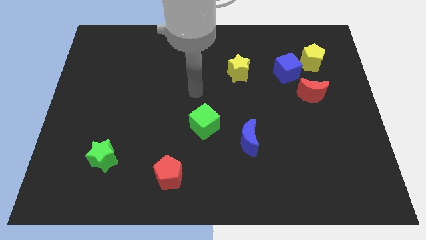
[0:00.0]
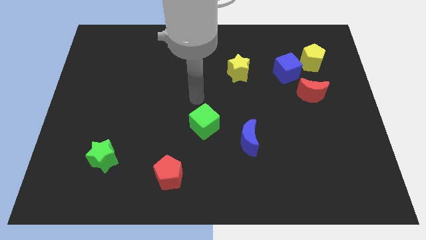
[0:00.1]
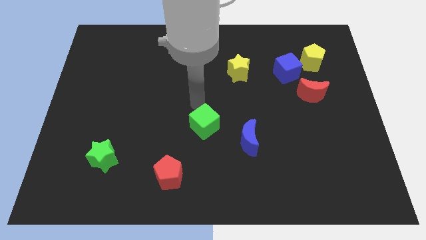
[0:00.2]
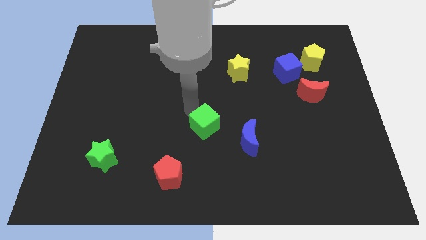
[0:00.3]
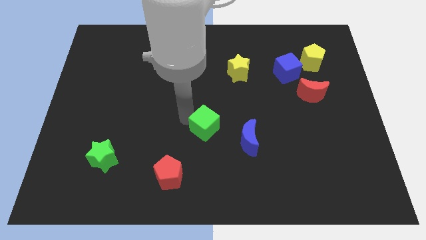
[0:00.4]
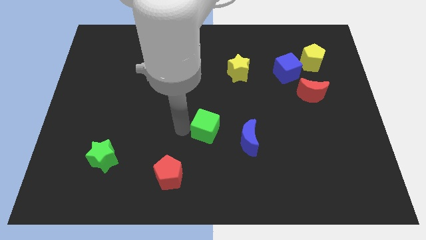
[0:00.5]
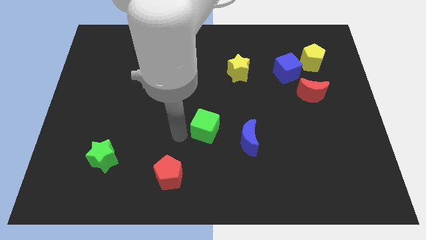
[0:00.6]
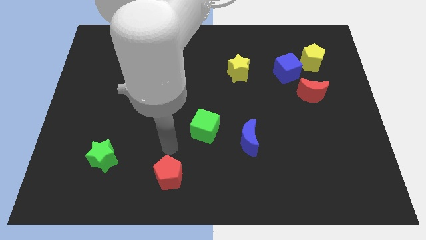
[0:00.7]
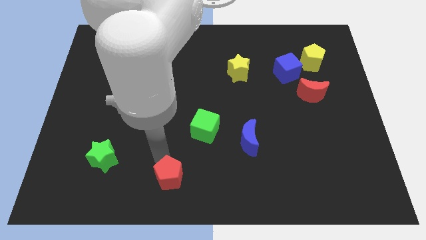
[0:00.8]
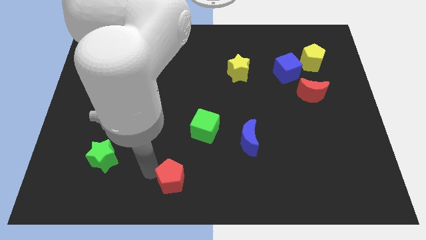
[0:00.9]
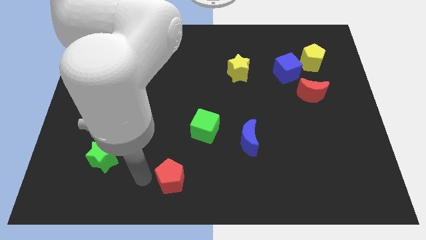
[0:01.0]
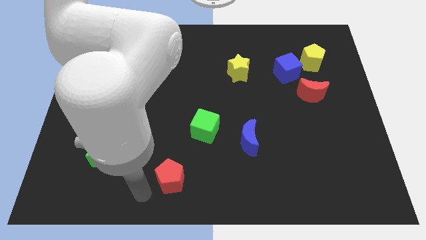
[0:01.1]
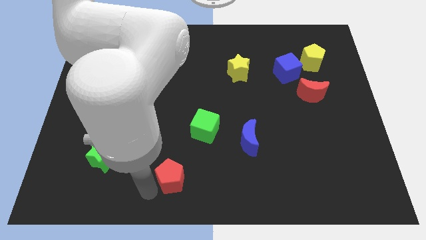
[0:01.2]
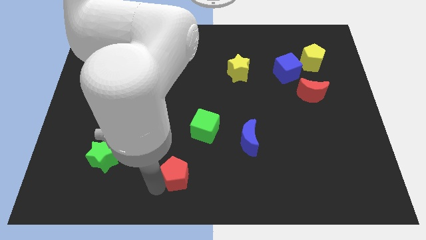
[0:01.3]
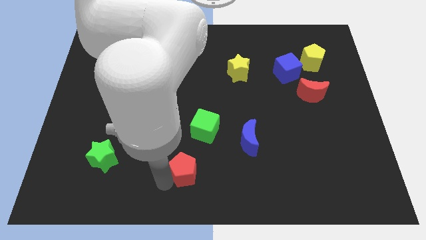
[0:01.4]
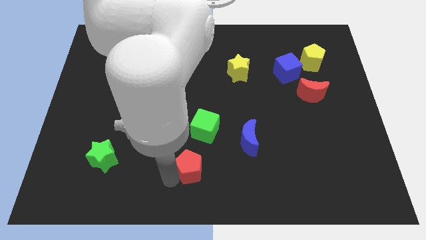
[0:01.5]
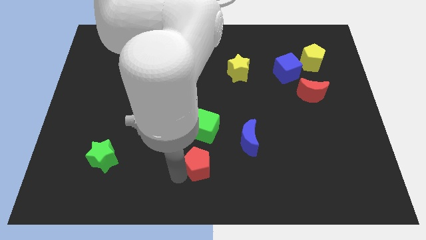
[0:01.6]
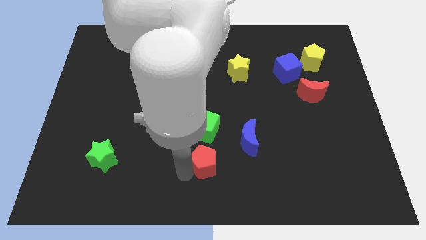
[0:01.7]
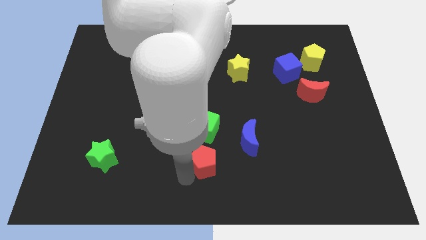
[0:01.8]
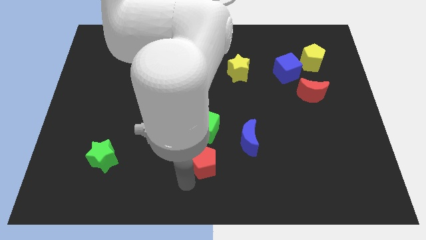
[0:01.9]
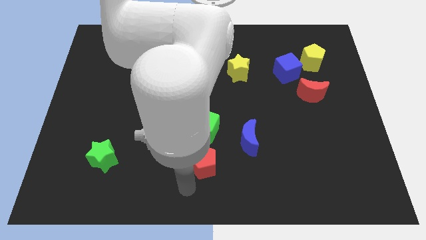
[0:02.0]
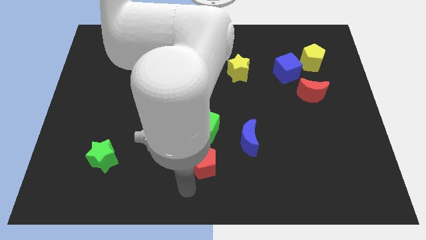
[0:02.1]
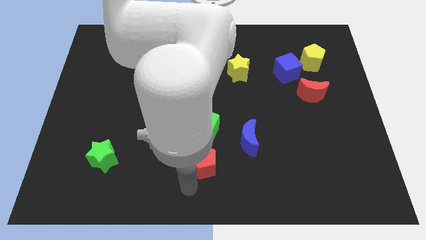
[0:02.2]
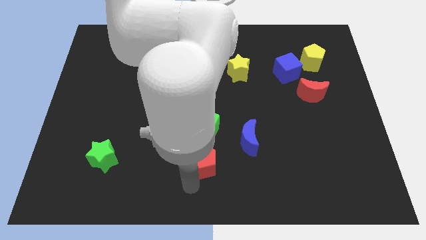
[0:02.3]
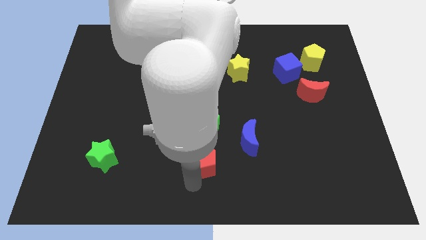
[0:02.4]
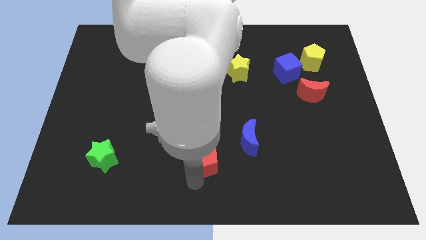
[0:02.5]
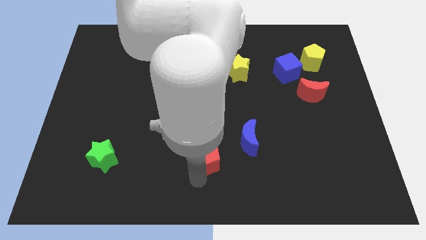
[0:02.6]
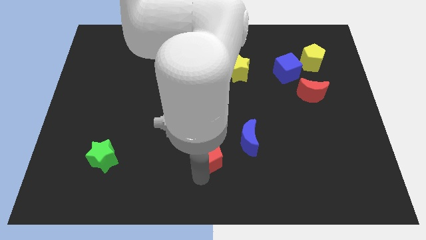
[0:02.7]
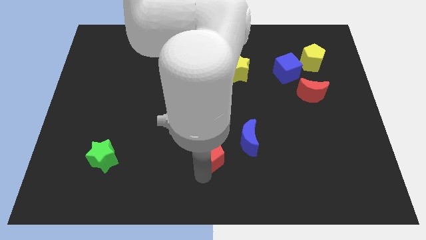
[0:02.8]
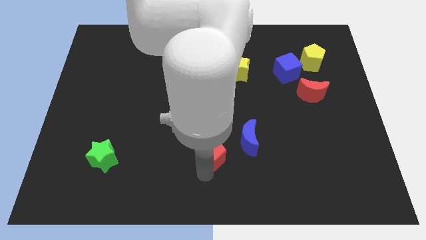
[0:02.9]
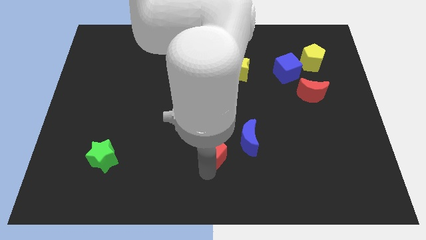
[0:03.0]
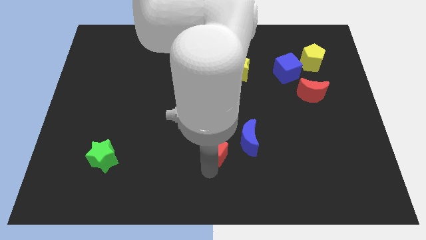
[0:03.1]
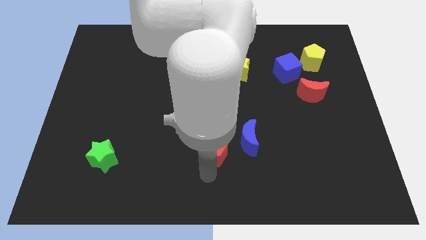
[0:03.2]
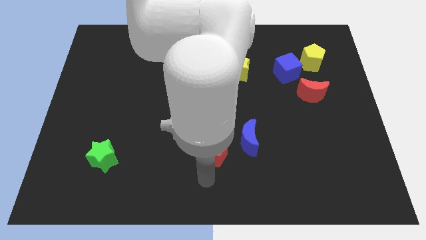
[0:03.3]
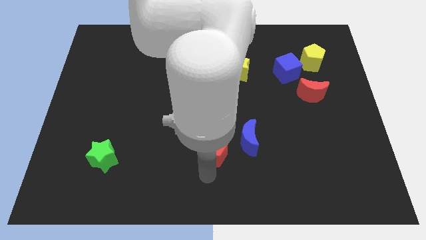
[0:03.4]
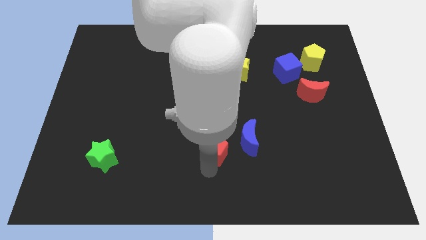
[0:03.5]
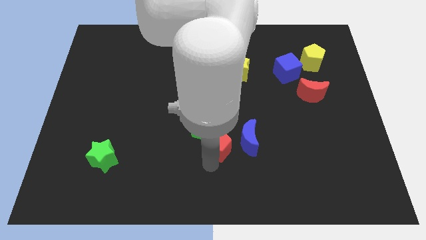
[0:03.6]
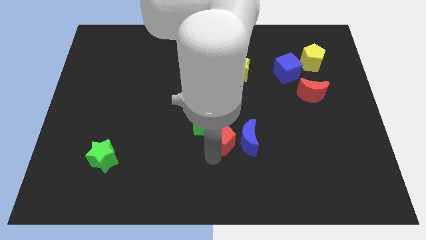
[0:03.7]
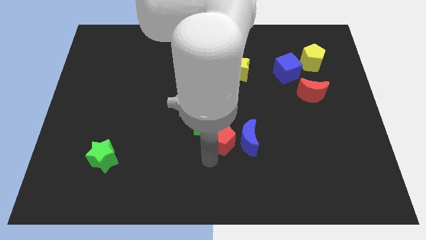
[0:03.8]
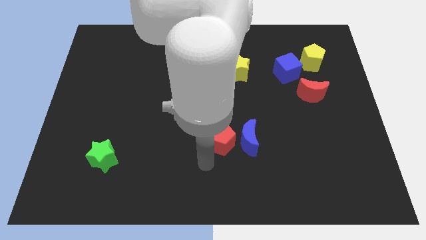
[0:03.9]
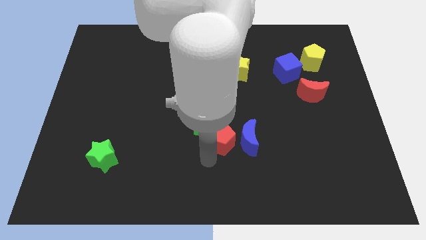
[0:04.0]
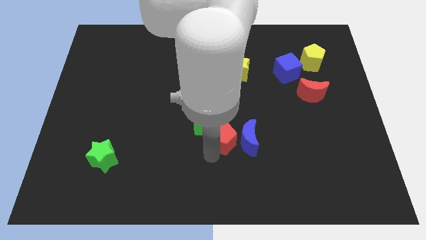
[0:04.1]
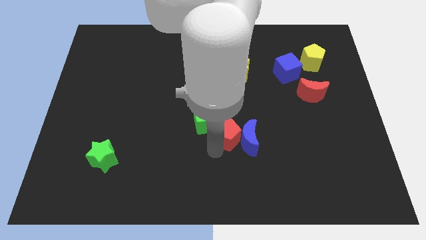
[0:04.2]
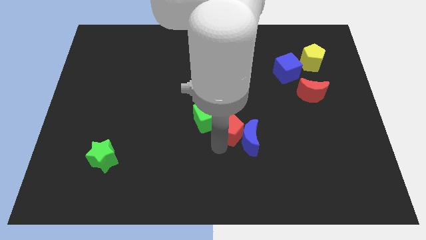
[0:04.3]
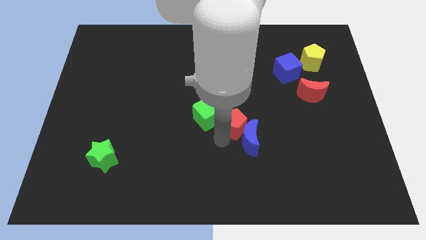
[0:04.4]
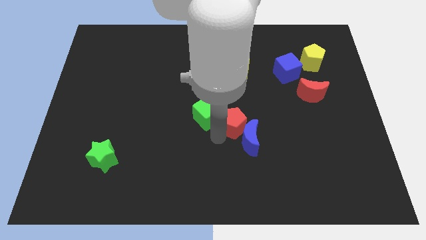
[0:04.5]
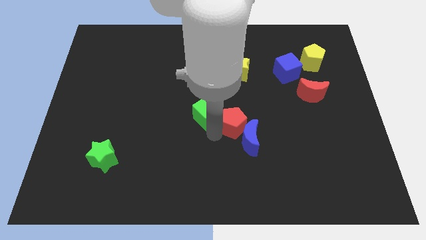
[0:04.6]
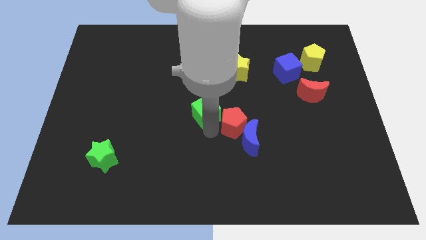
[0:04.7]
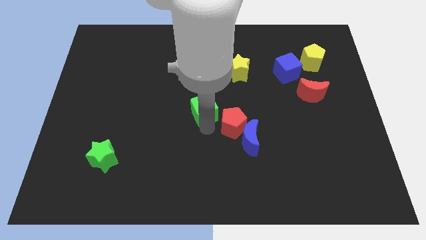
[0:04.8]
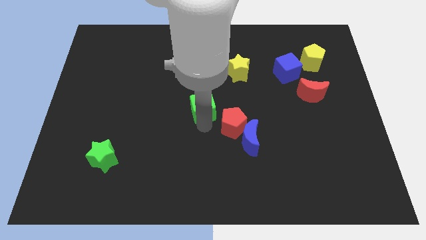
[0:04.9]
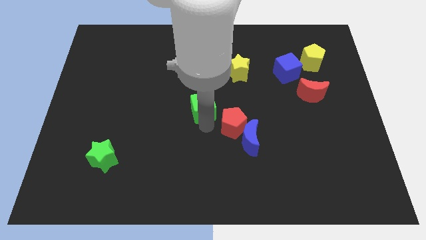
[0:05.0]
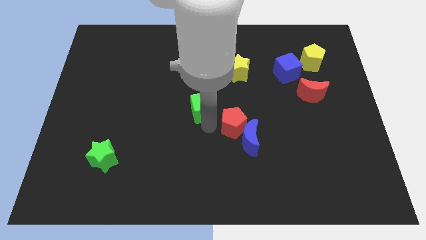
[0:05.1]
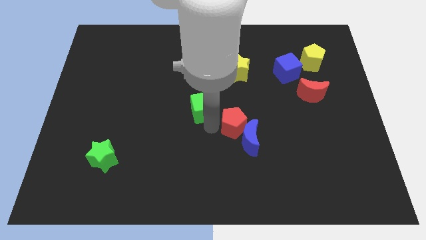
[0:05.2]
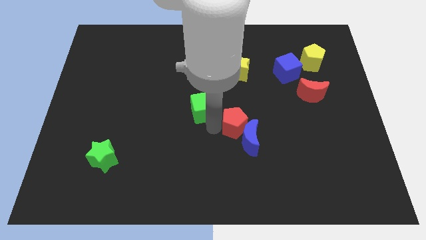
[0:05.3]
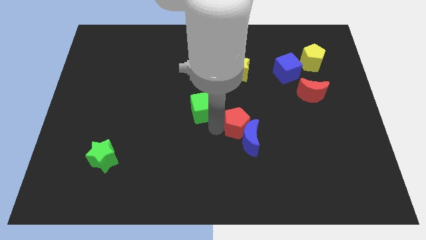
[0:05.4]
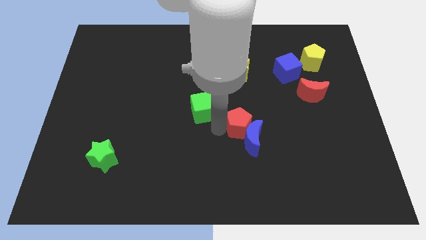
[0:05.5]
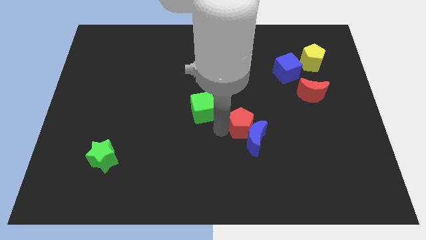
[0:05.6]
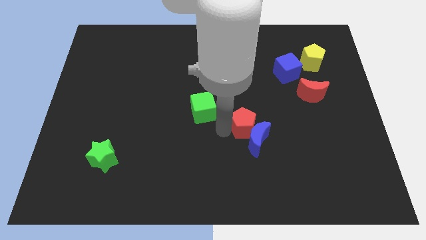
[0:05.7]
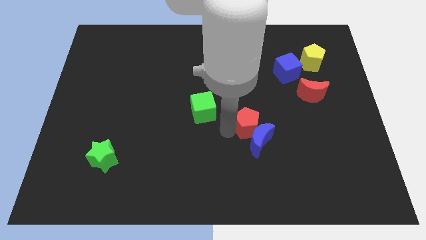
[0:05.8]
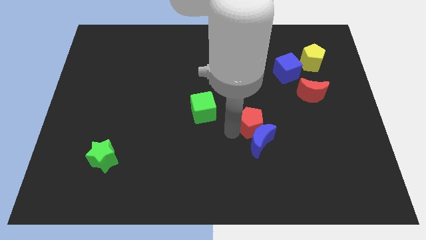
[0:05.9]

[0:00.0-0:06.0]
put the red pentagon to the top right of the blue moon

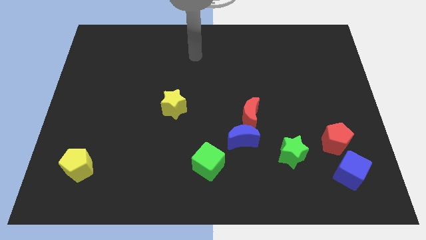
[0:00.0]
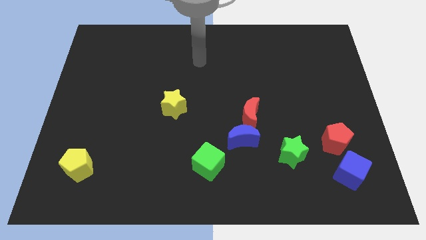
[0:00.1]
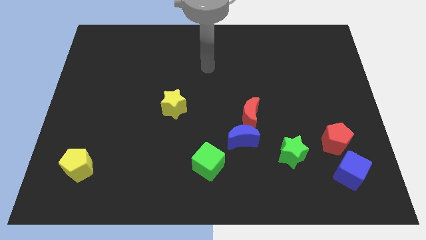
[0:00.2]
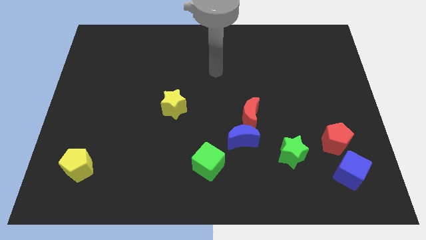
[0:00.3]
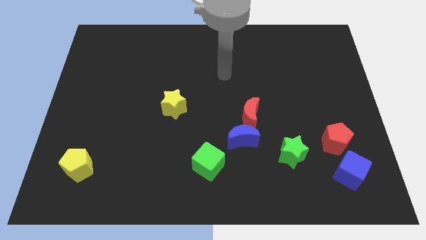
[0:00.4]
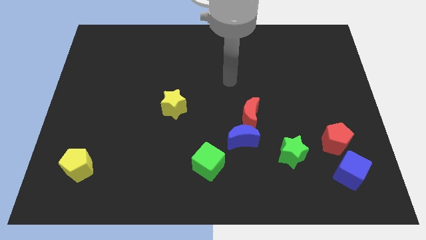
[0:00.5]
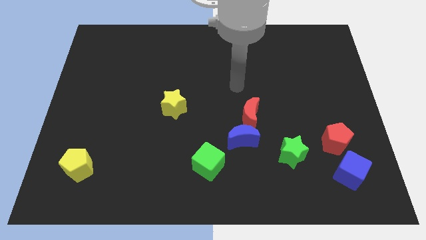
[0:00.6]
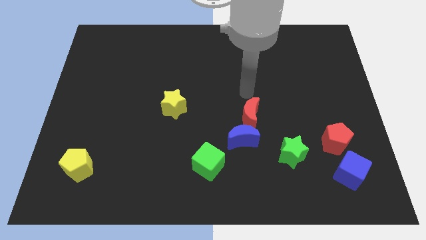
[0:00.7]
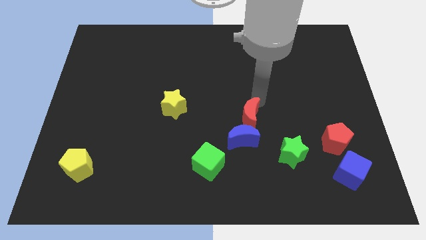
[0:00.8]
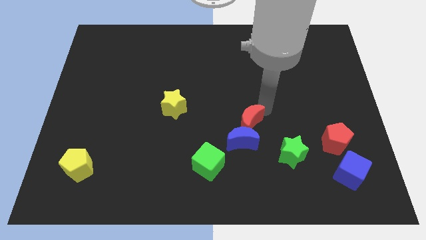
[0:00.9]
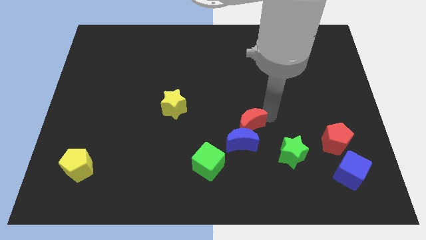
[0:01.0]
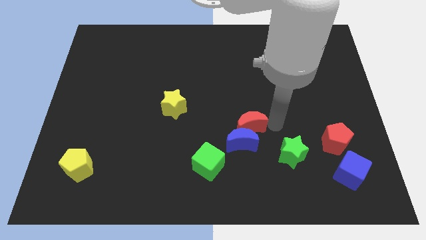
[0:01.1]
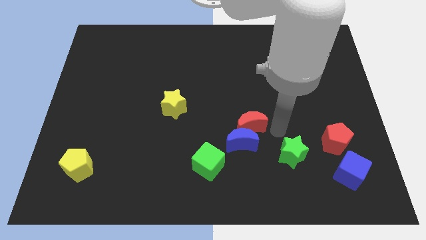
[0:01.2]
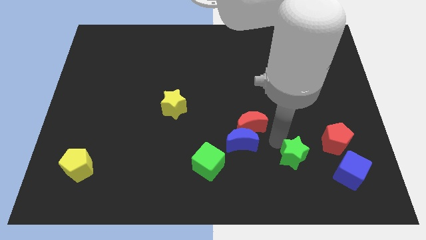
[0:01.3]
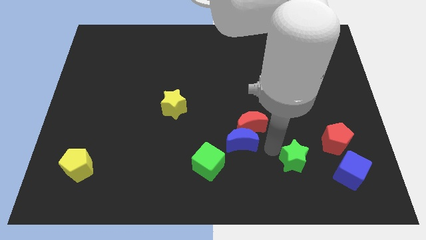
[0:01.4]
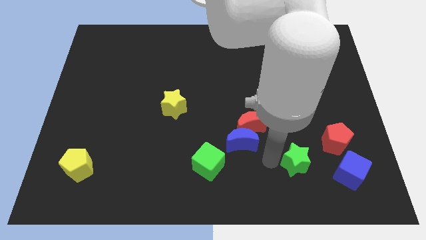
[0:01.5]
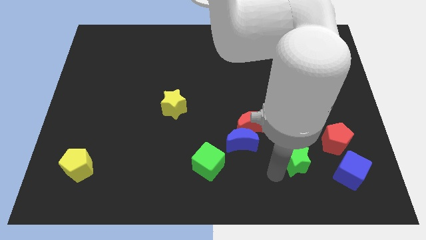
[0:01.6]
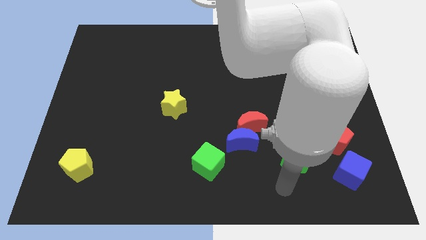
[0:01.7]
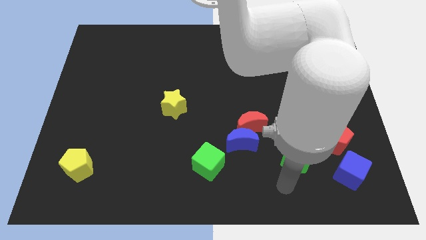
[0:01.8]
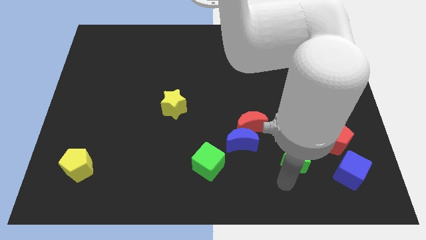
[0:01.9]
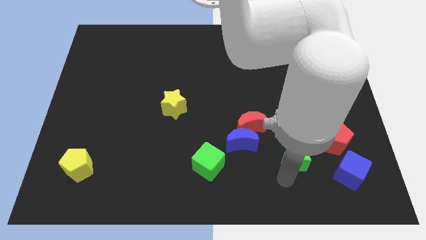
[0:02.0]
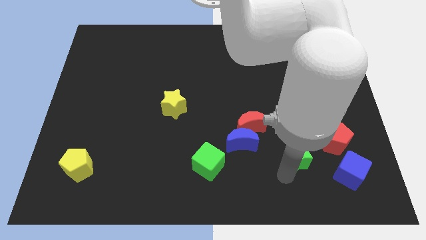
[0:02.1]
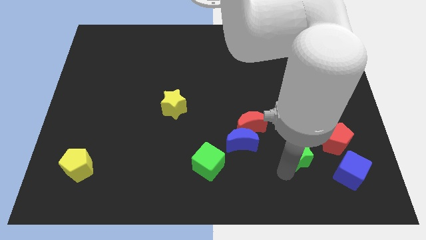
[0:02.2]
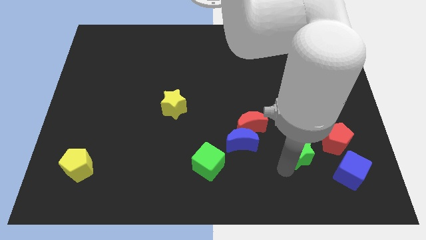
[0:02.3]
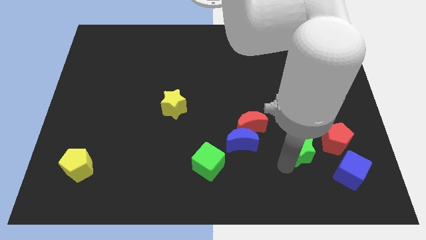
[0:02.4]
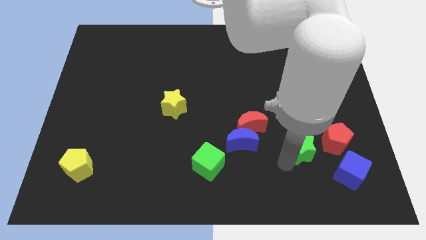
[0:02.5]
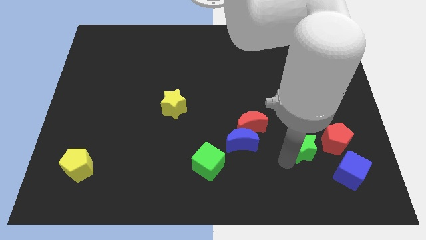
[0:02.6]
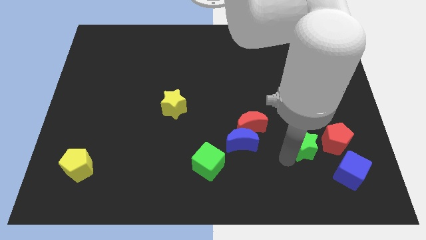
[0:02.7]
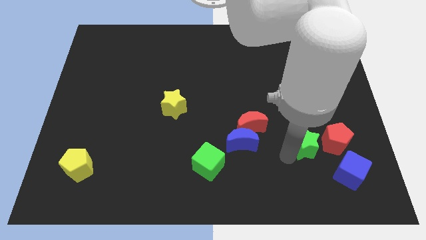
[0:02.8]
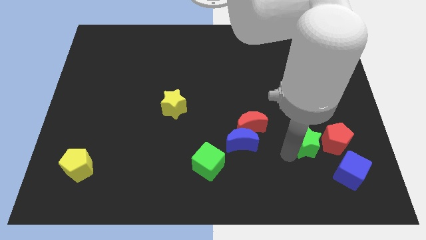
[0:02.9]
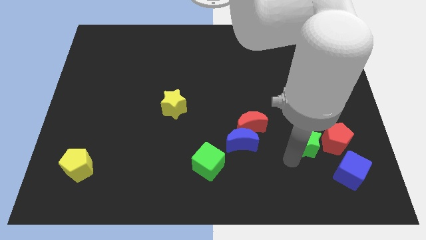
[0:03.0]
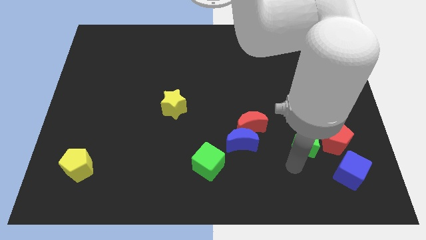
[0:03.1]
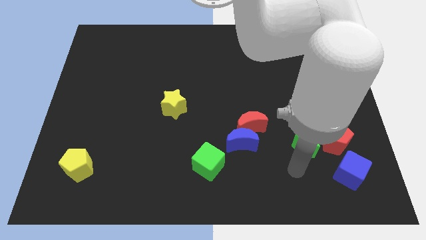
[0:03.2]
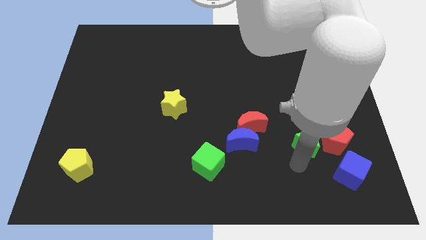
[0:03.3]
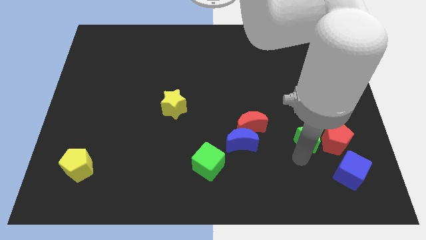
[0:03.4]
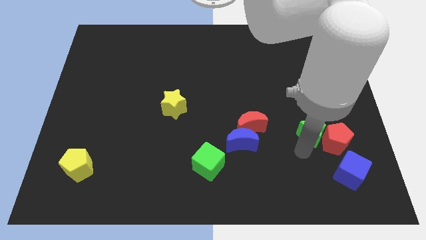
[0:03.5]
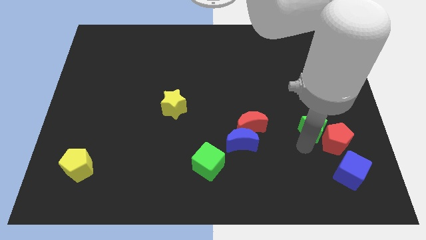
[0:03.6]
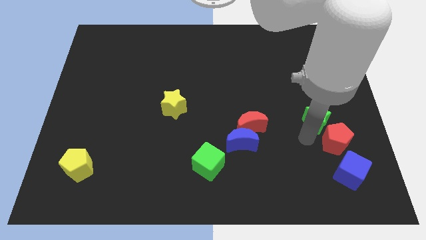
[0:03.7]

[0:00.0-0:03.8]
move the green star to the top of the red pentagon
